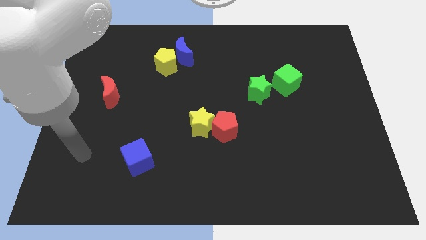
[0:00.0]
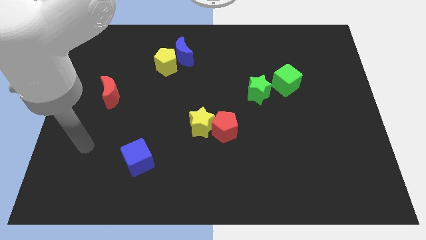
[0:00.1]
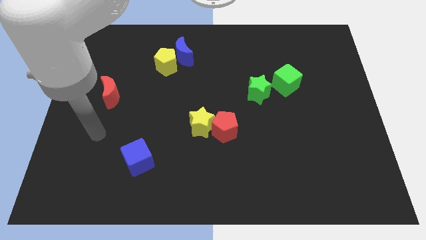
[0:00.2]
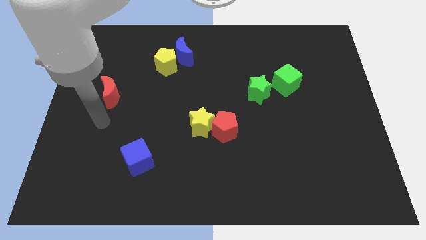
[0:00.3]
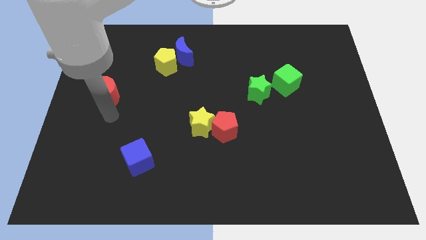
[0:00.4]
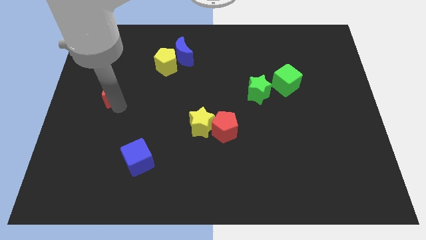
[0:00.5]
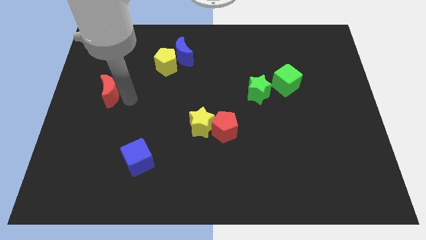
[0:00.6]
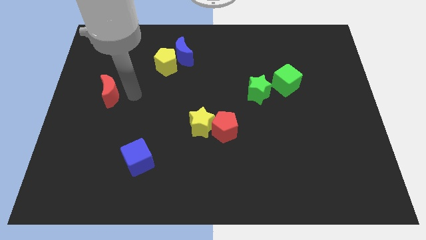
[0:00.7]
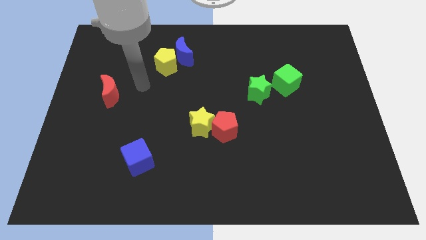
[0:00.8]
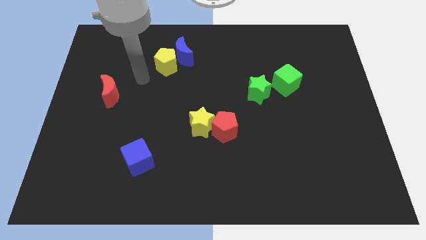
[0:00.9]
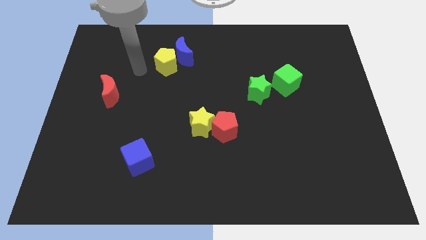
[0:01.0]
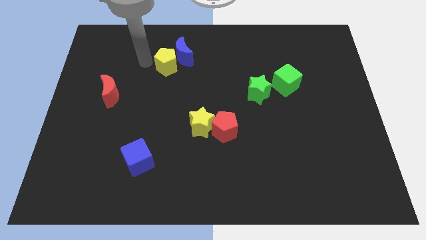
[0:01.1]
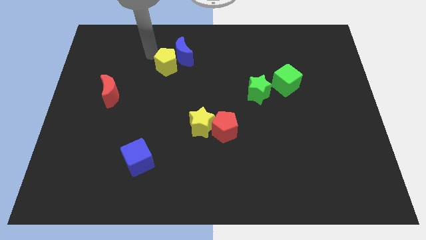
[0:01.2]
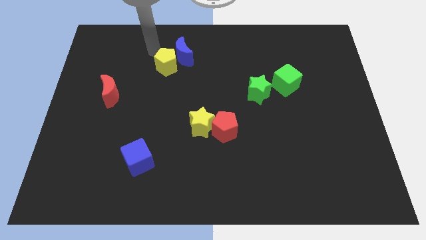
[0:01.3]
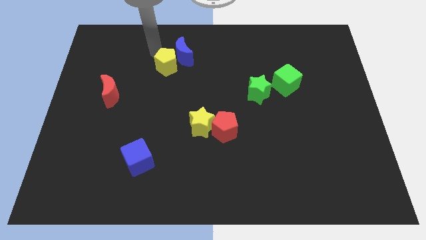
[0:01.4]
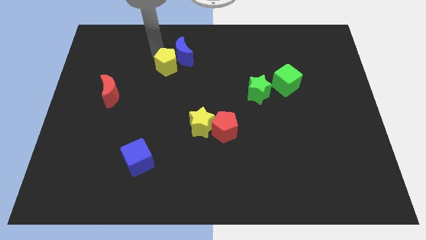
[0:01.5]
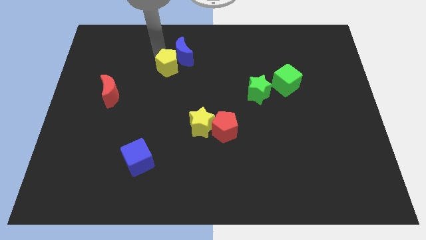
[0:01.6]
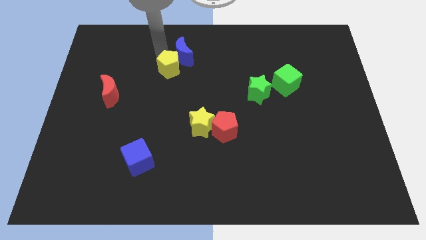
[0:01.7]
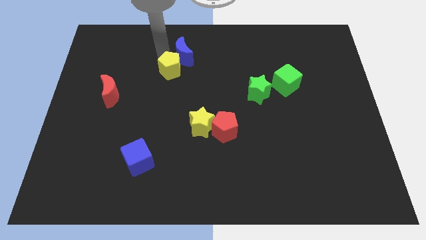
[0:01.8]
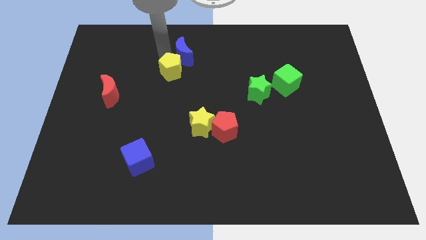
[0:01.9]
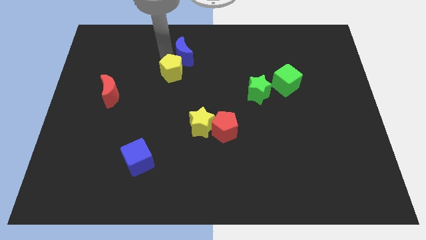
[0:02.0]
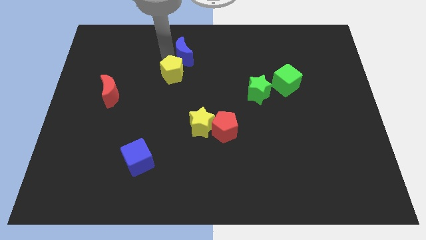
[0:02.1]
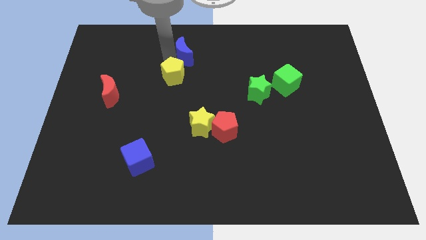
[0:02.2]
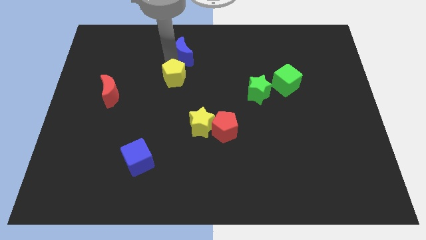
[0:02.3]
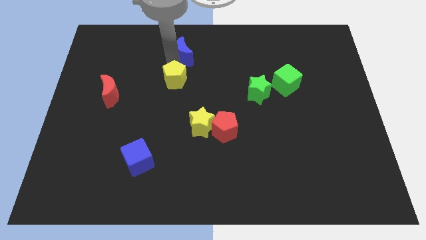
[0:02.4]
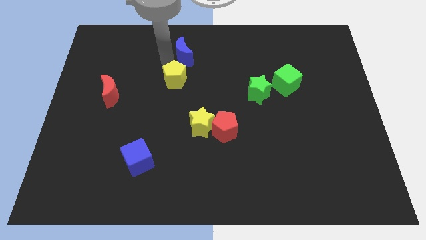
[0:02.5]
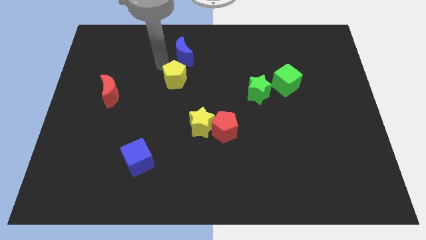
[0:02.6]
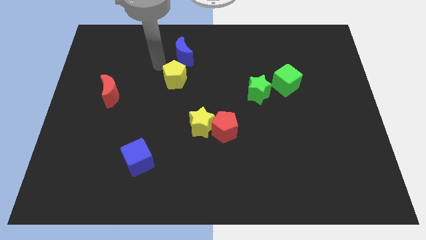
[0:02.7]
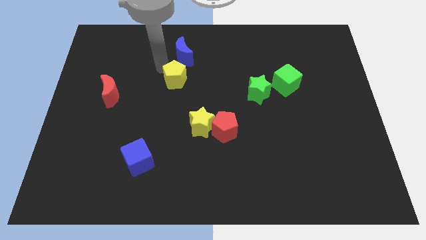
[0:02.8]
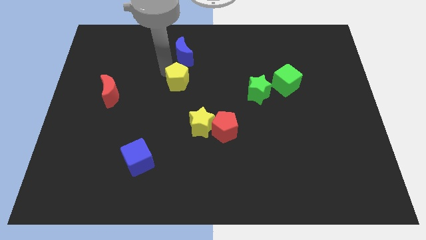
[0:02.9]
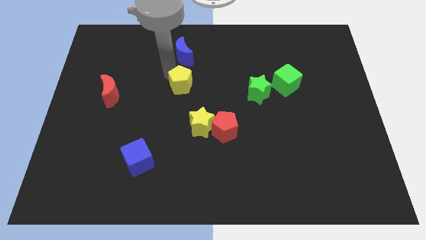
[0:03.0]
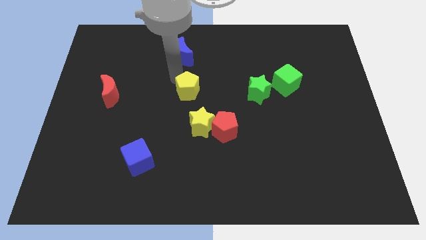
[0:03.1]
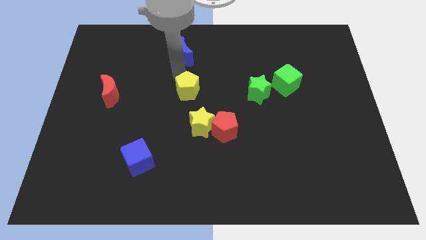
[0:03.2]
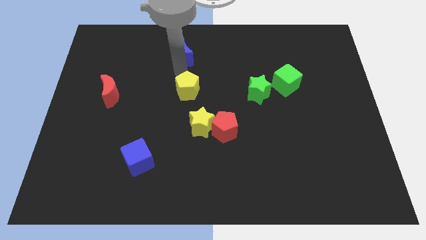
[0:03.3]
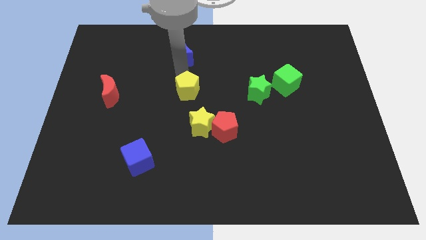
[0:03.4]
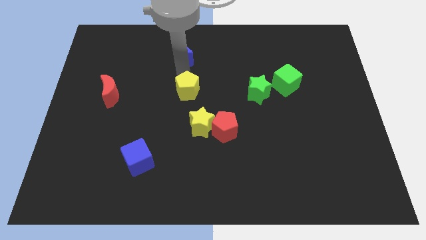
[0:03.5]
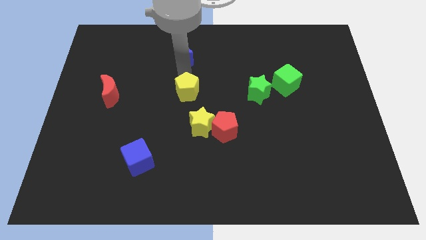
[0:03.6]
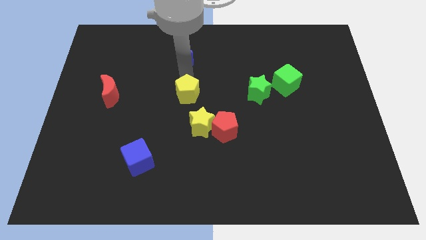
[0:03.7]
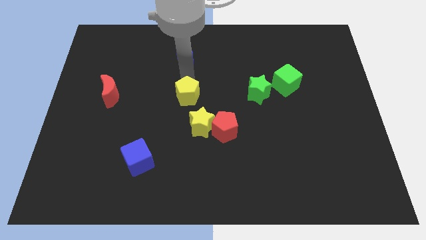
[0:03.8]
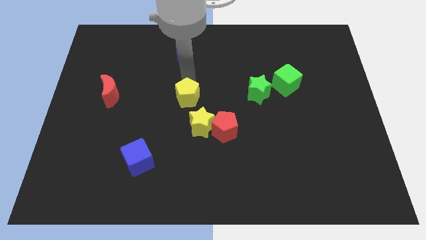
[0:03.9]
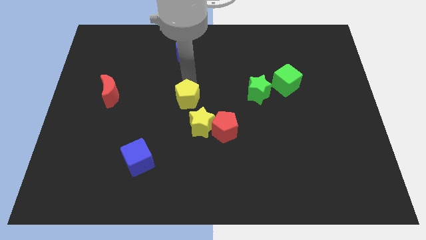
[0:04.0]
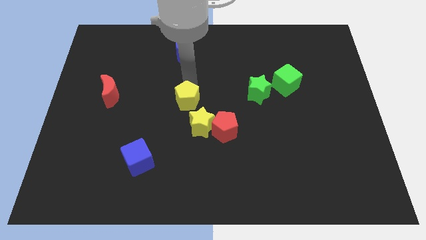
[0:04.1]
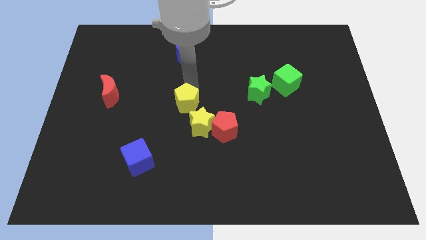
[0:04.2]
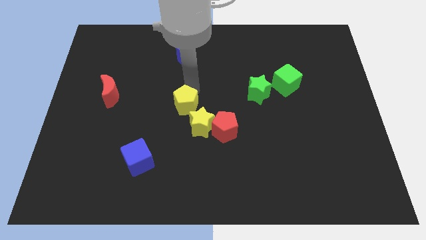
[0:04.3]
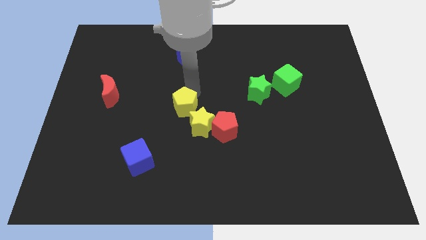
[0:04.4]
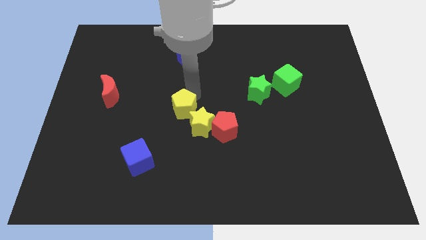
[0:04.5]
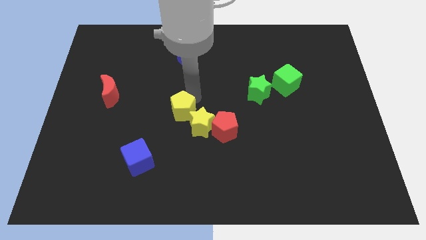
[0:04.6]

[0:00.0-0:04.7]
put the yellow pentagon next to the yellow star

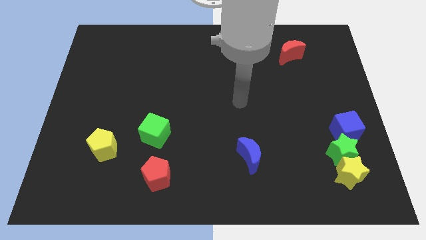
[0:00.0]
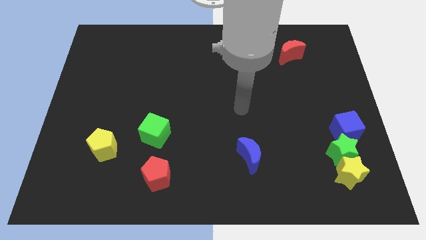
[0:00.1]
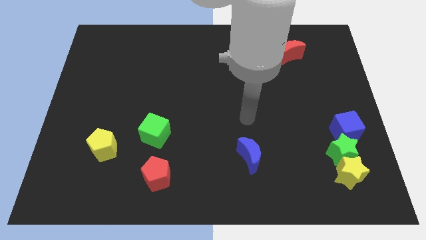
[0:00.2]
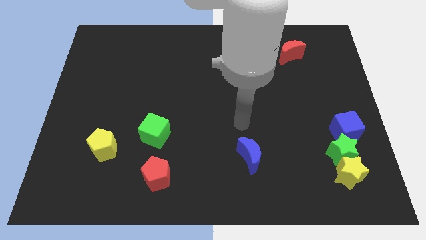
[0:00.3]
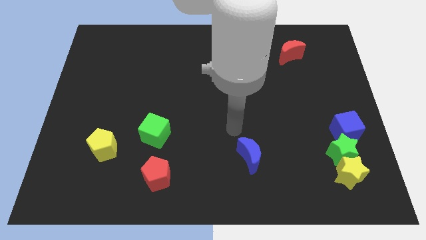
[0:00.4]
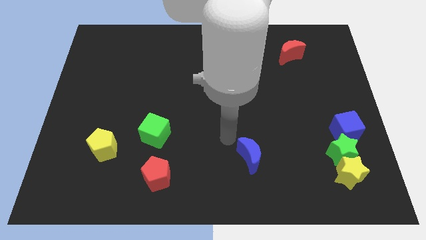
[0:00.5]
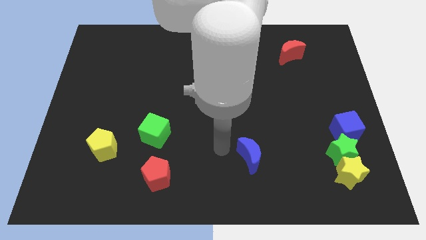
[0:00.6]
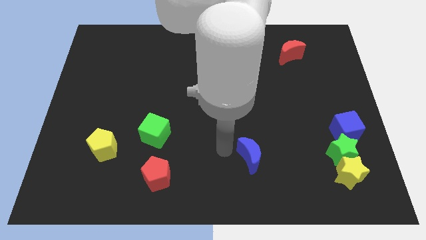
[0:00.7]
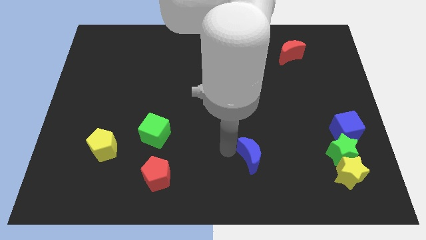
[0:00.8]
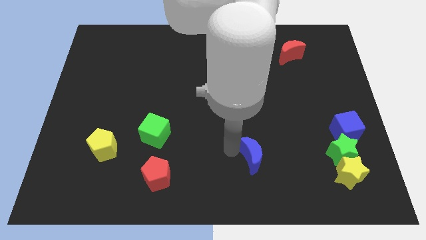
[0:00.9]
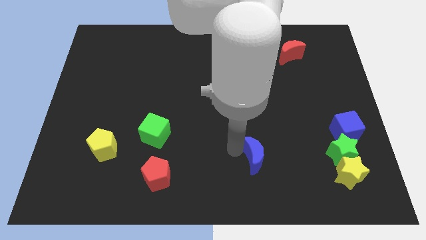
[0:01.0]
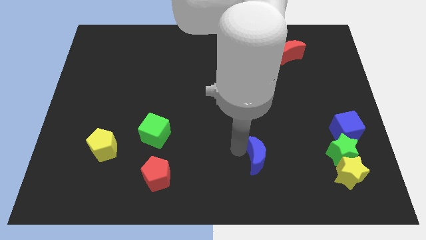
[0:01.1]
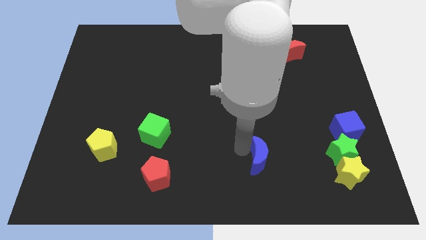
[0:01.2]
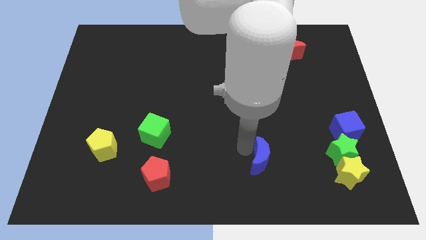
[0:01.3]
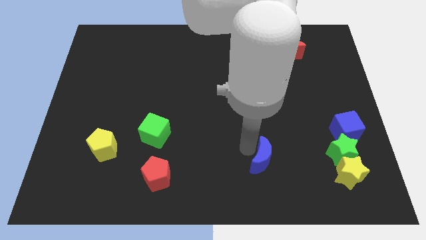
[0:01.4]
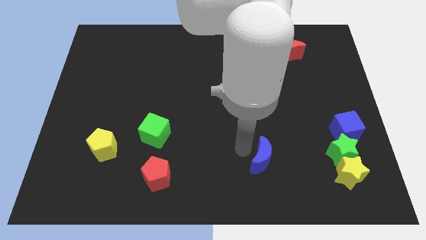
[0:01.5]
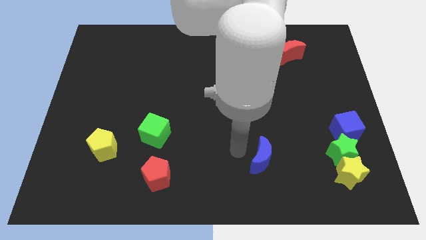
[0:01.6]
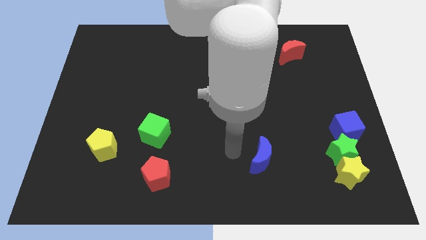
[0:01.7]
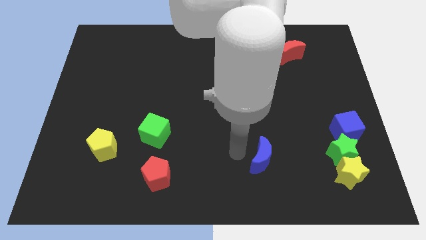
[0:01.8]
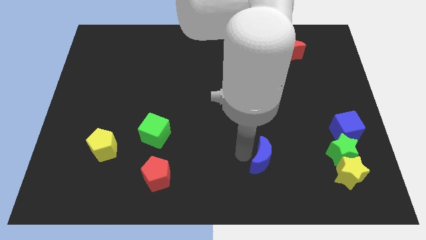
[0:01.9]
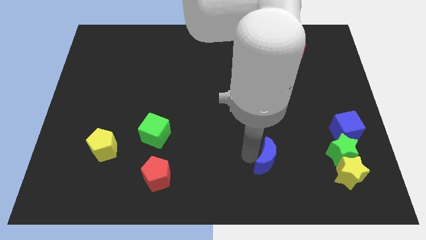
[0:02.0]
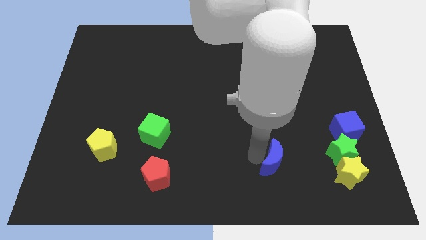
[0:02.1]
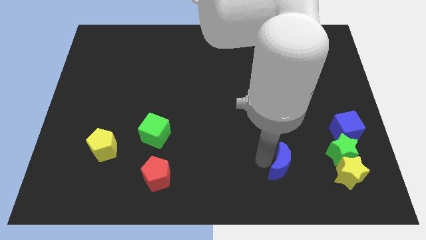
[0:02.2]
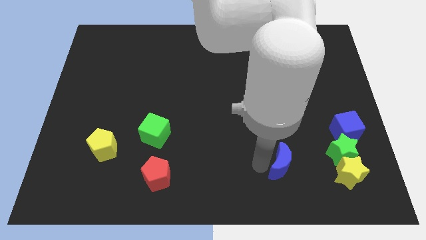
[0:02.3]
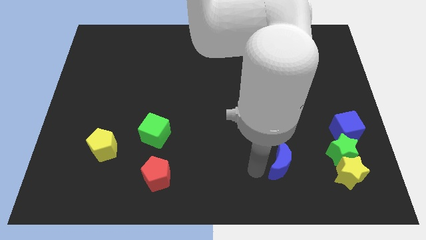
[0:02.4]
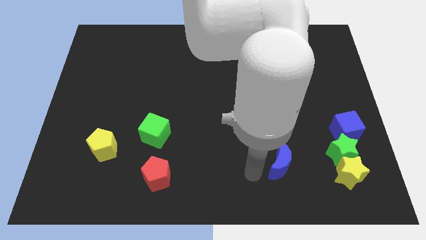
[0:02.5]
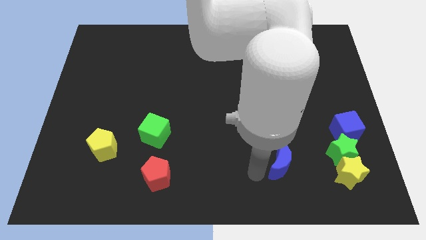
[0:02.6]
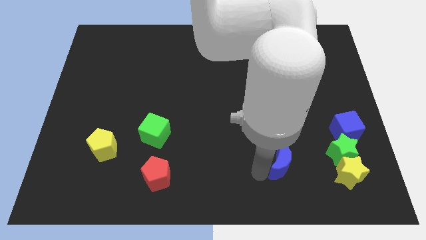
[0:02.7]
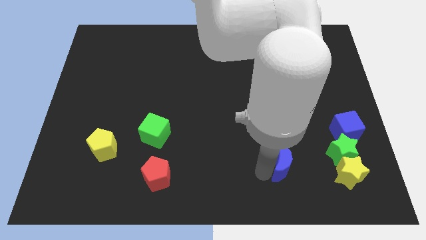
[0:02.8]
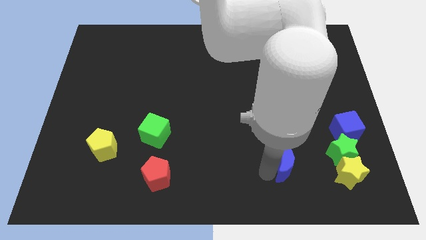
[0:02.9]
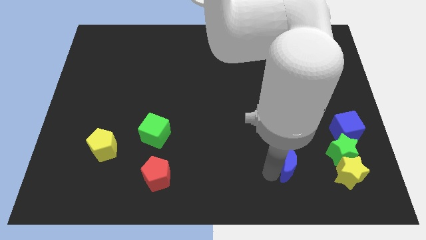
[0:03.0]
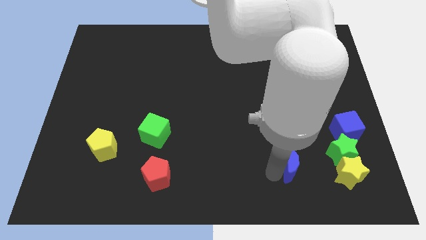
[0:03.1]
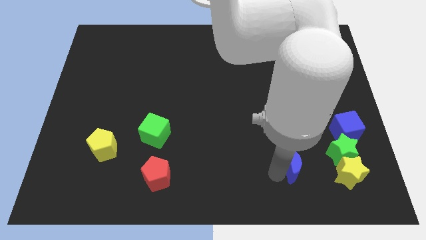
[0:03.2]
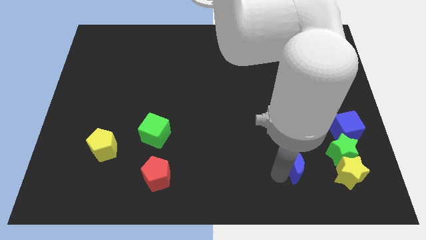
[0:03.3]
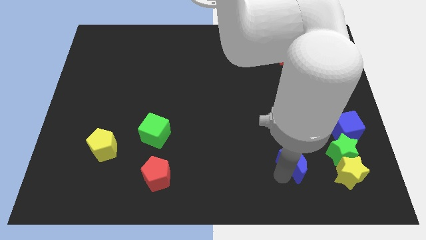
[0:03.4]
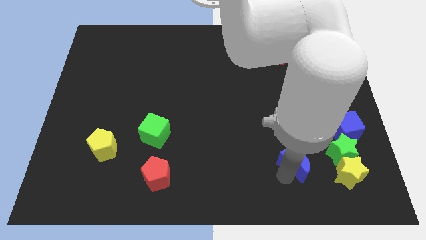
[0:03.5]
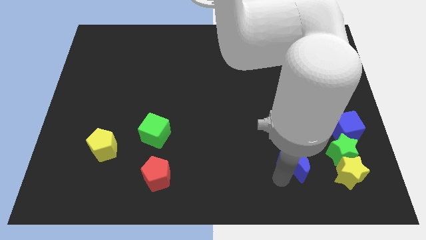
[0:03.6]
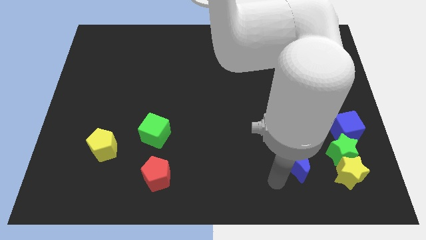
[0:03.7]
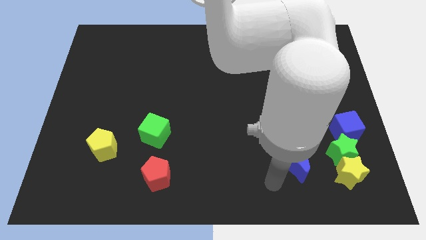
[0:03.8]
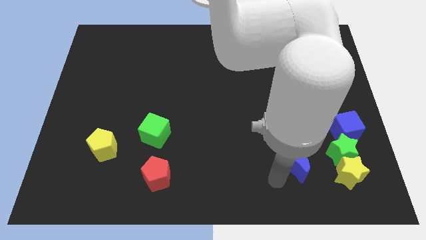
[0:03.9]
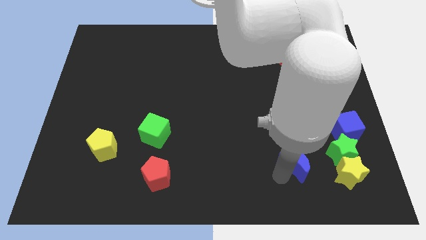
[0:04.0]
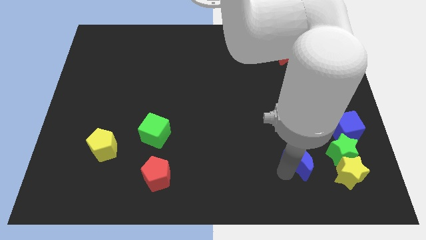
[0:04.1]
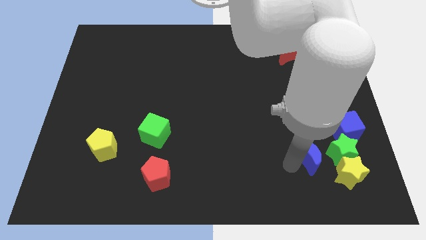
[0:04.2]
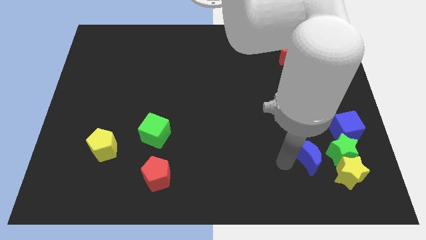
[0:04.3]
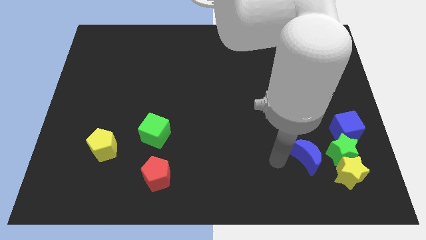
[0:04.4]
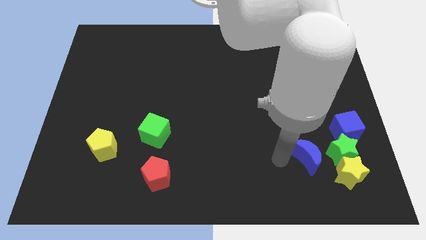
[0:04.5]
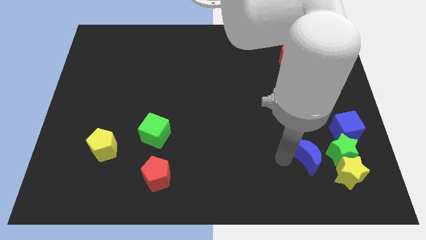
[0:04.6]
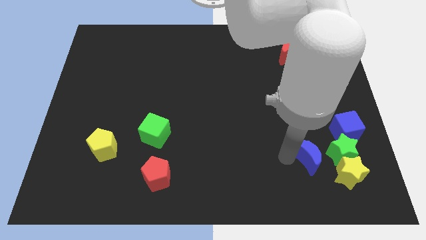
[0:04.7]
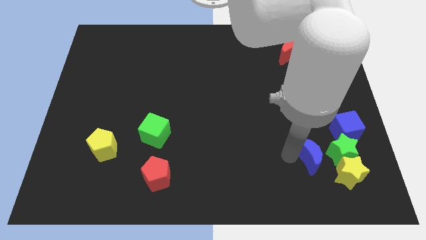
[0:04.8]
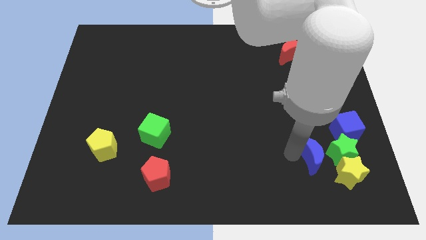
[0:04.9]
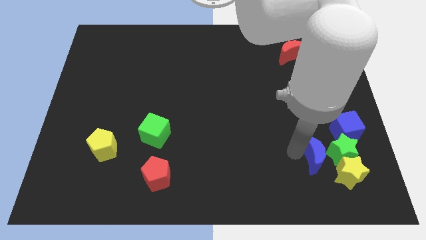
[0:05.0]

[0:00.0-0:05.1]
slide the blue moon towards the green star
